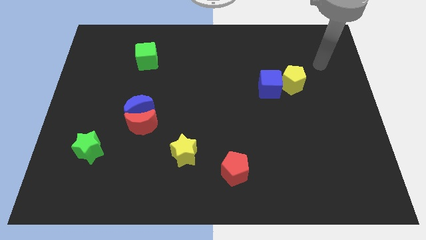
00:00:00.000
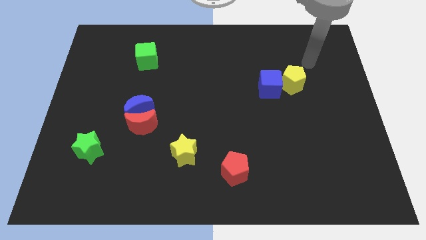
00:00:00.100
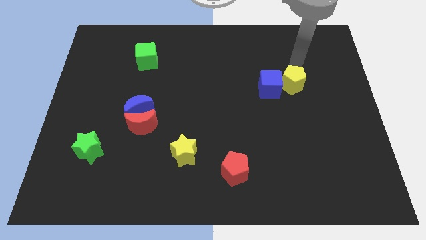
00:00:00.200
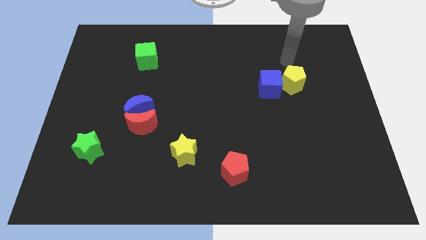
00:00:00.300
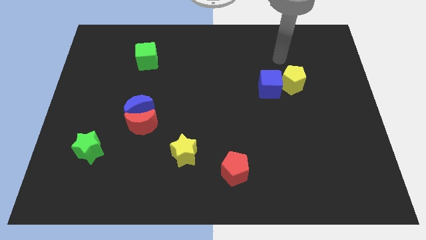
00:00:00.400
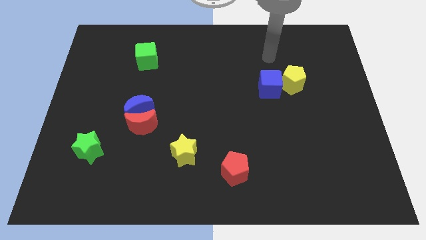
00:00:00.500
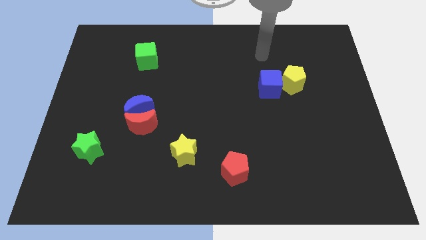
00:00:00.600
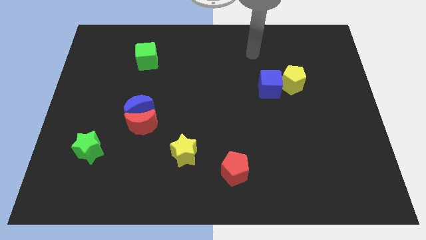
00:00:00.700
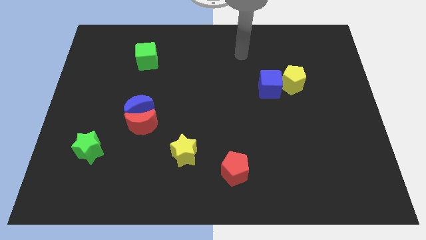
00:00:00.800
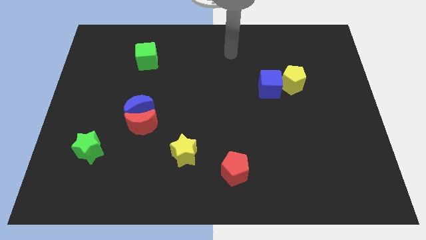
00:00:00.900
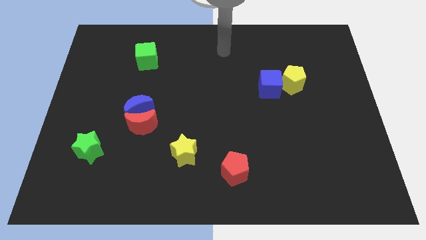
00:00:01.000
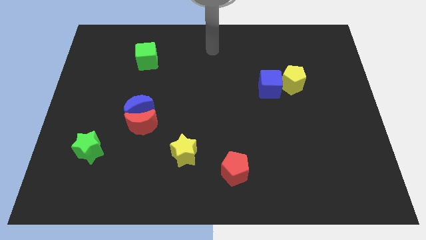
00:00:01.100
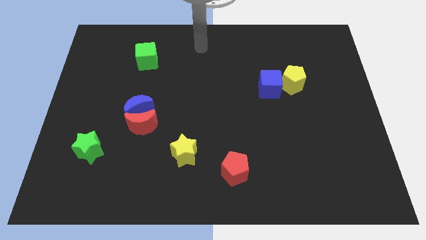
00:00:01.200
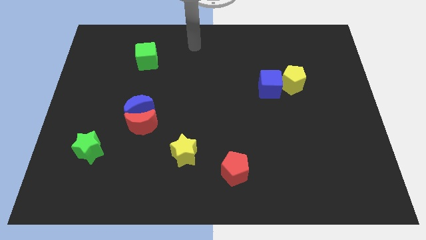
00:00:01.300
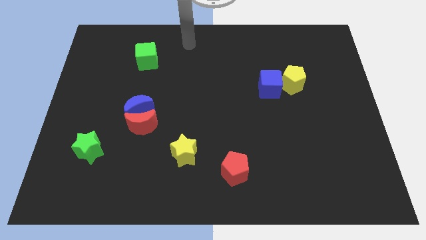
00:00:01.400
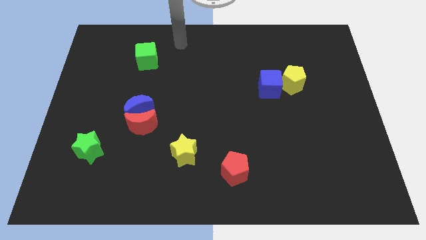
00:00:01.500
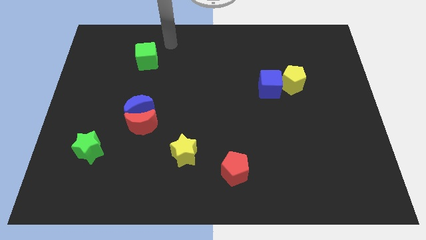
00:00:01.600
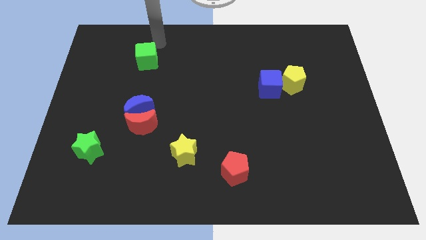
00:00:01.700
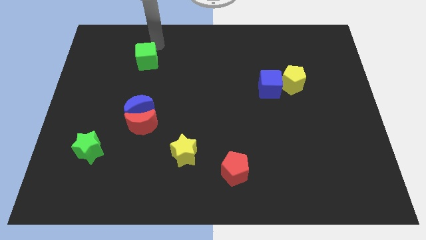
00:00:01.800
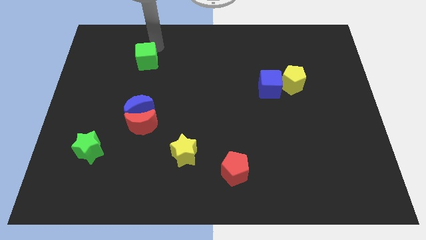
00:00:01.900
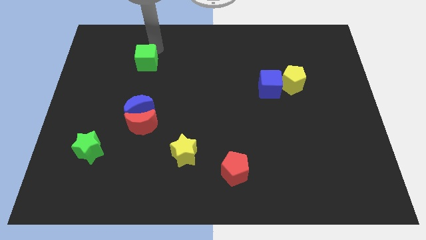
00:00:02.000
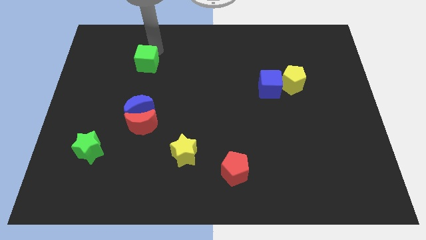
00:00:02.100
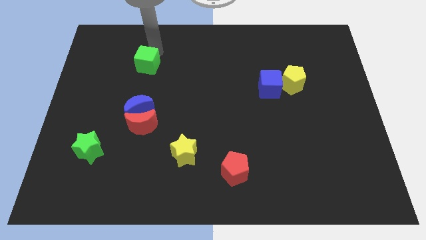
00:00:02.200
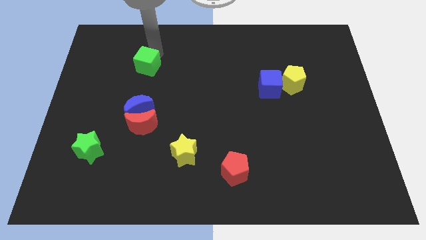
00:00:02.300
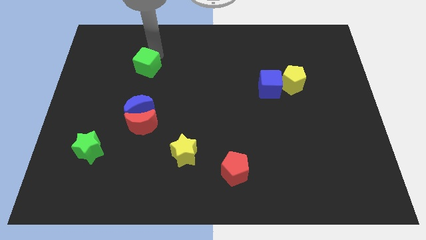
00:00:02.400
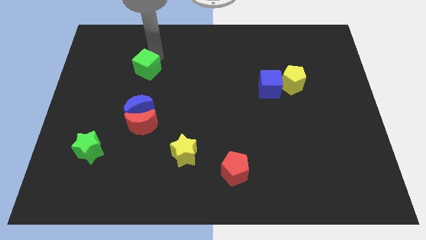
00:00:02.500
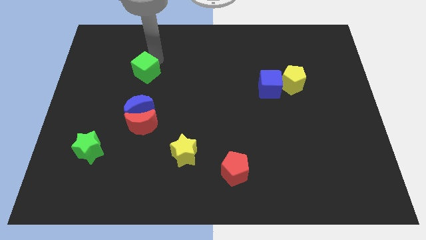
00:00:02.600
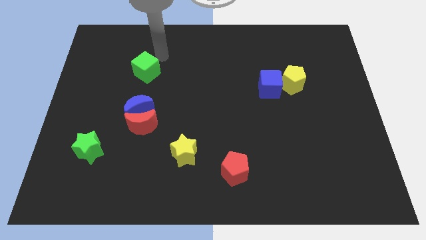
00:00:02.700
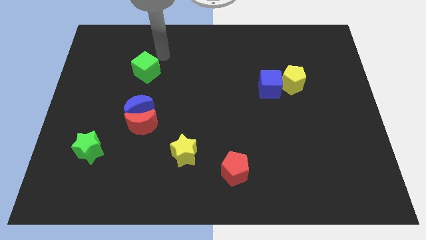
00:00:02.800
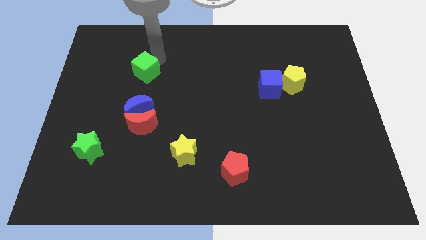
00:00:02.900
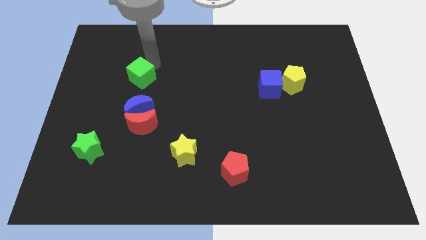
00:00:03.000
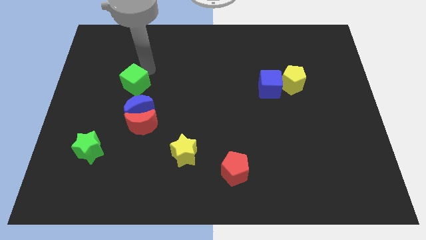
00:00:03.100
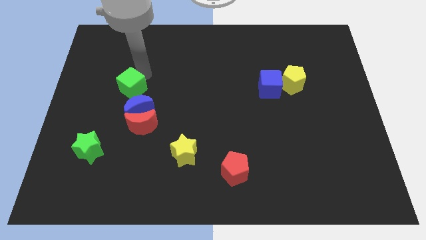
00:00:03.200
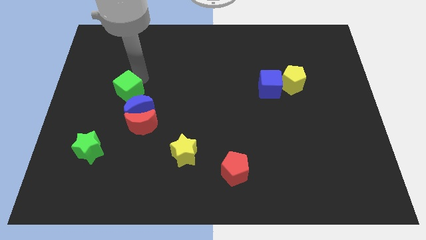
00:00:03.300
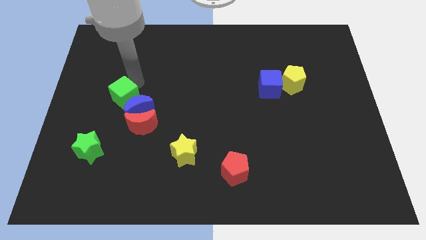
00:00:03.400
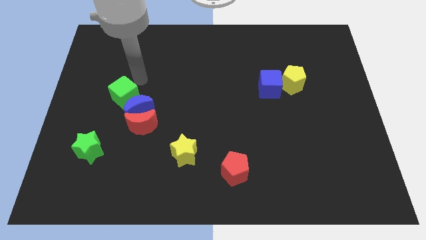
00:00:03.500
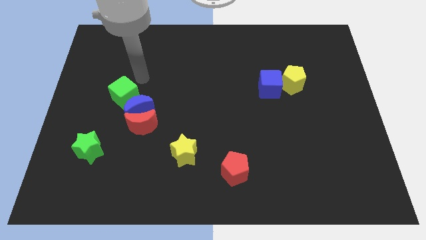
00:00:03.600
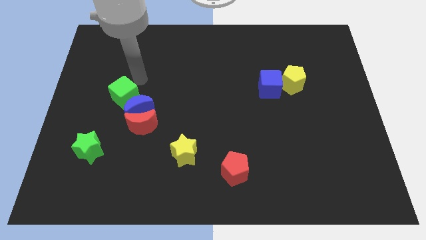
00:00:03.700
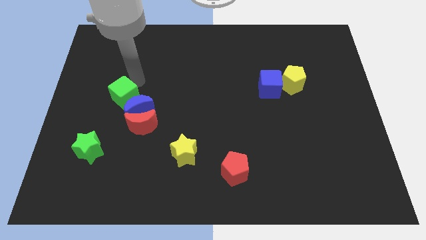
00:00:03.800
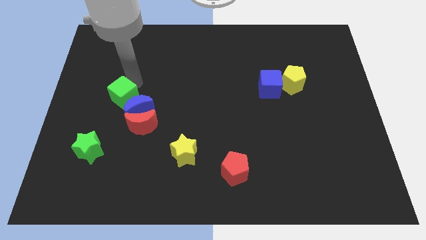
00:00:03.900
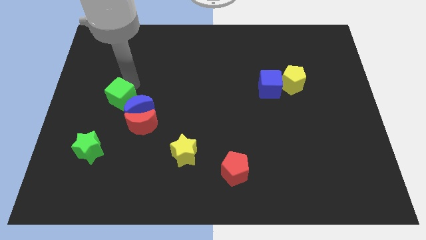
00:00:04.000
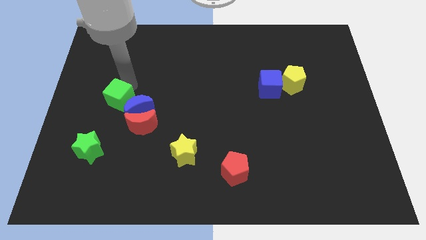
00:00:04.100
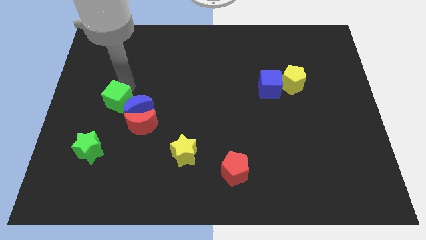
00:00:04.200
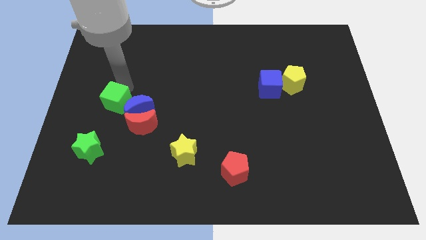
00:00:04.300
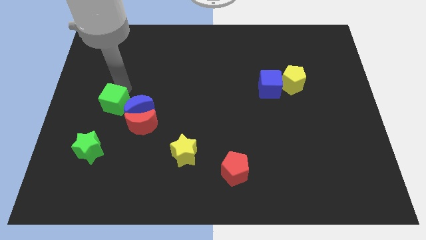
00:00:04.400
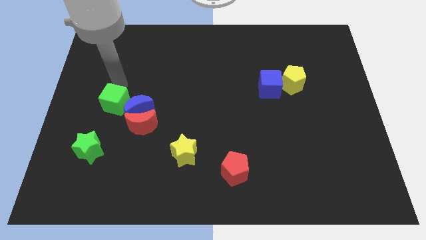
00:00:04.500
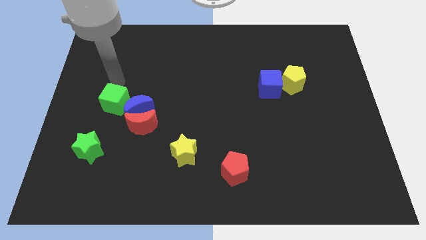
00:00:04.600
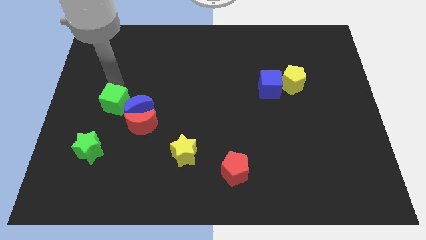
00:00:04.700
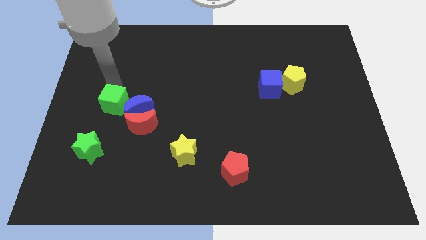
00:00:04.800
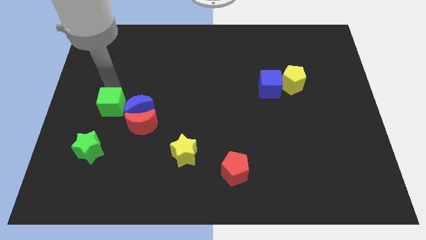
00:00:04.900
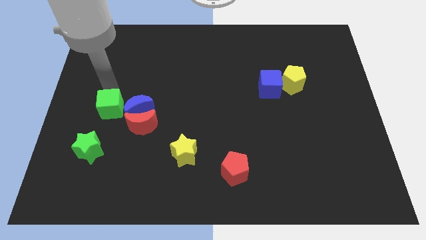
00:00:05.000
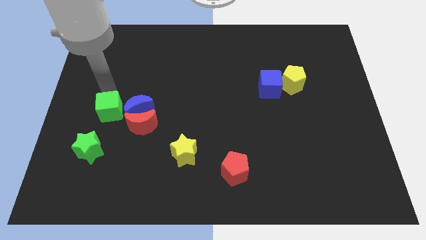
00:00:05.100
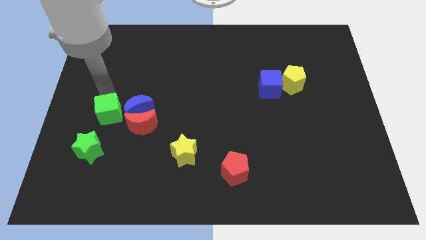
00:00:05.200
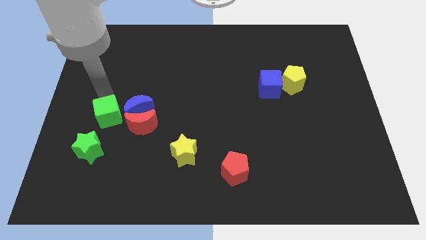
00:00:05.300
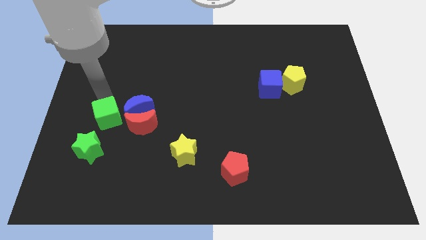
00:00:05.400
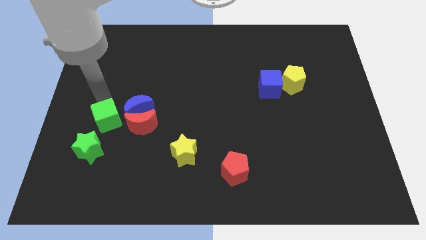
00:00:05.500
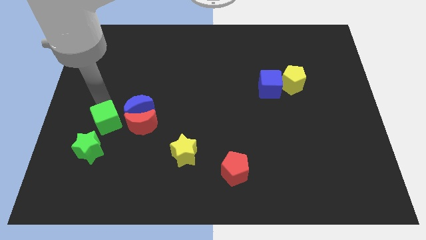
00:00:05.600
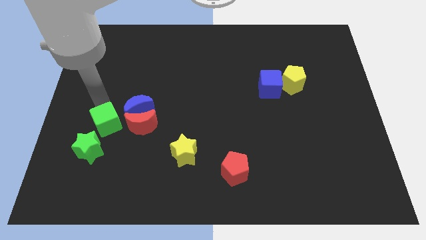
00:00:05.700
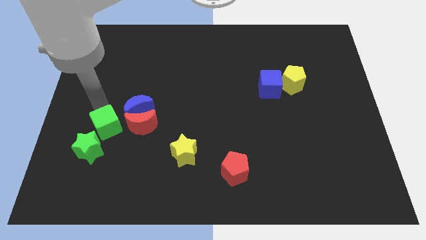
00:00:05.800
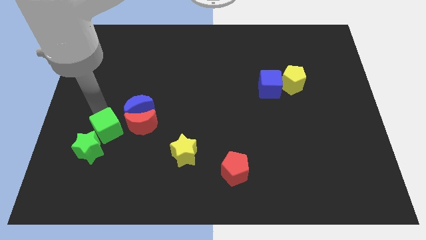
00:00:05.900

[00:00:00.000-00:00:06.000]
slide the green cube downwards

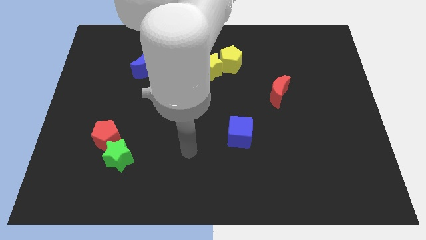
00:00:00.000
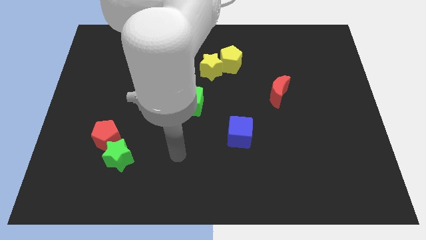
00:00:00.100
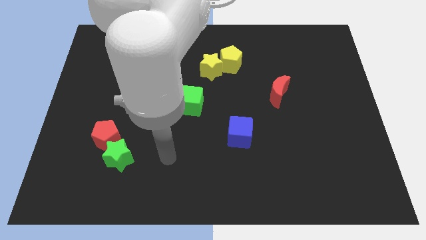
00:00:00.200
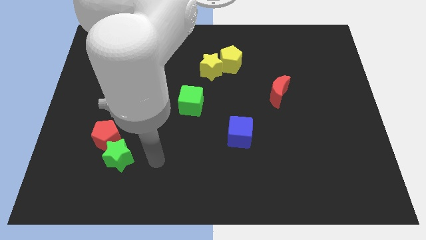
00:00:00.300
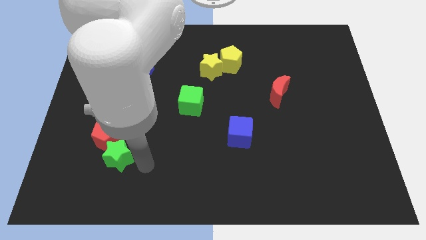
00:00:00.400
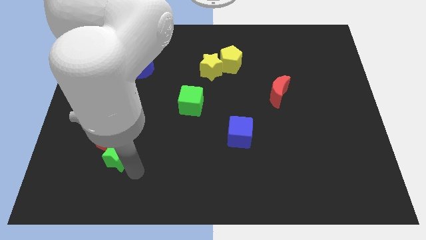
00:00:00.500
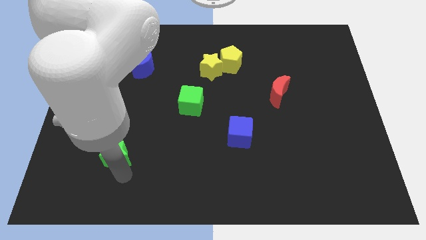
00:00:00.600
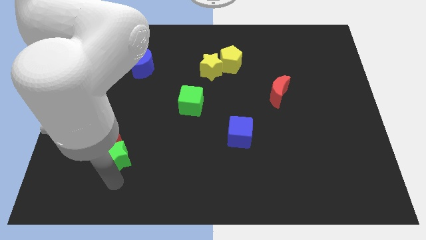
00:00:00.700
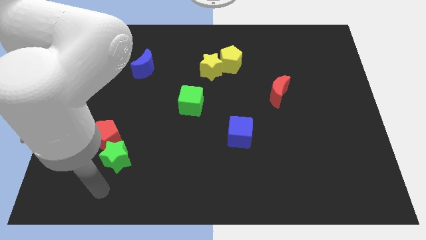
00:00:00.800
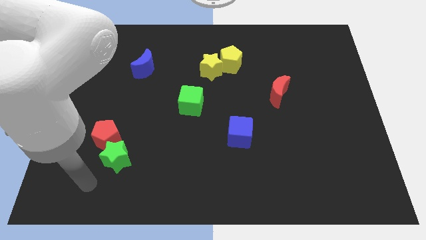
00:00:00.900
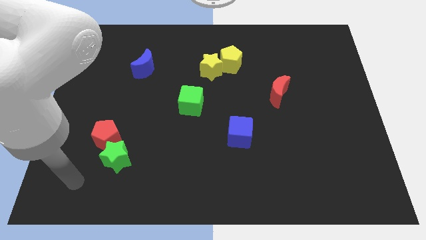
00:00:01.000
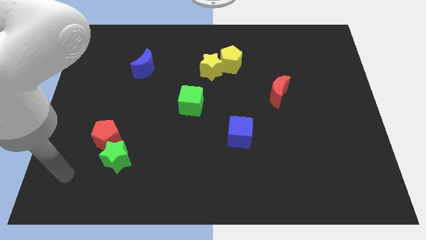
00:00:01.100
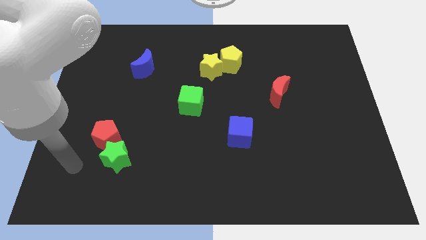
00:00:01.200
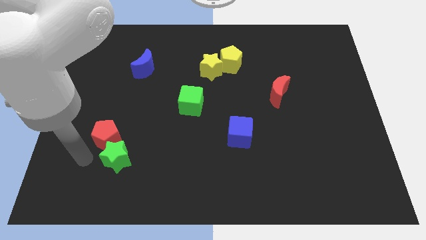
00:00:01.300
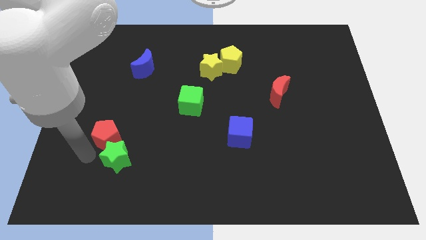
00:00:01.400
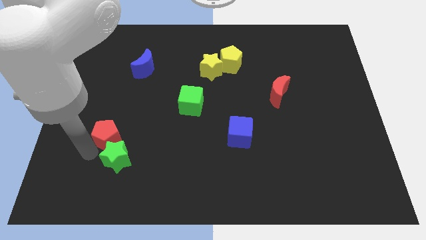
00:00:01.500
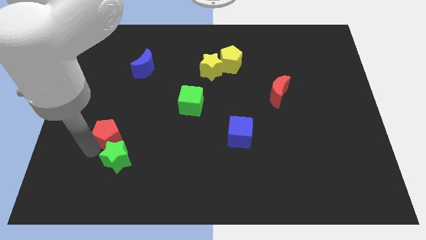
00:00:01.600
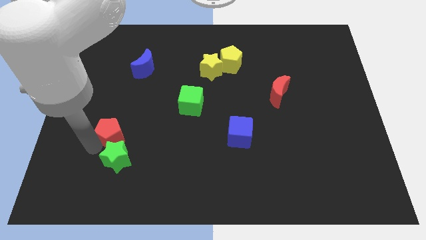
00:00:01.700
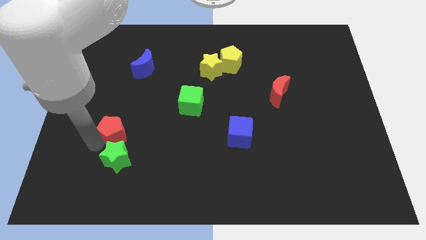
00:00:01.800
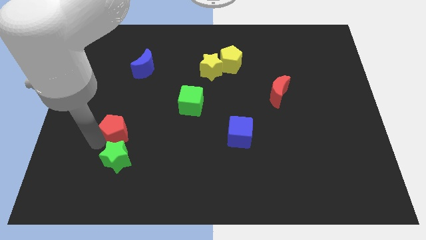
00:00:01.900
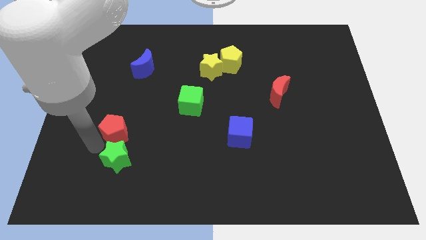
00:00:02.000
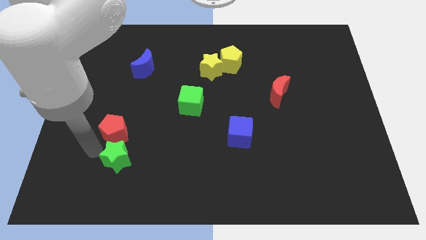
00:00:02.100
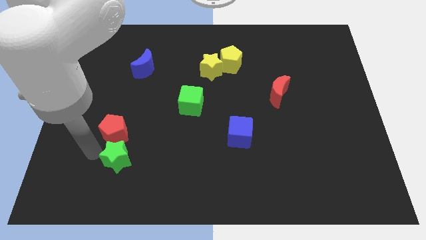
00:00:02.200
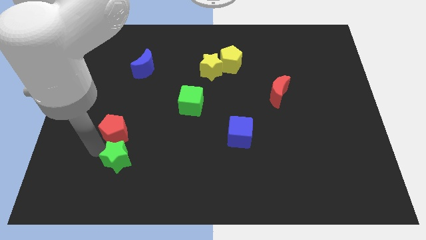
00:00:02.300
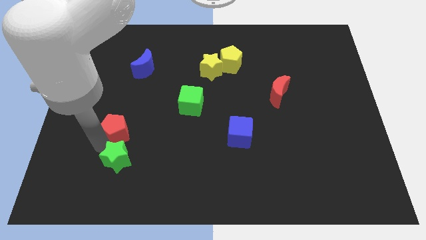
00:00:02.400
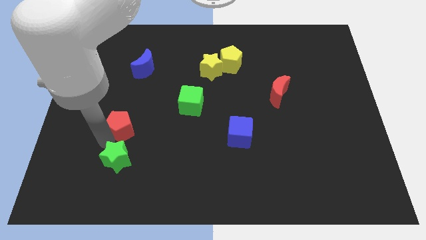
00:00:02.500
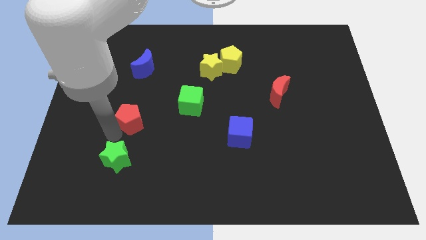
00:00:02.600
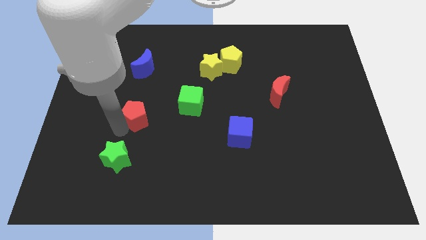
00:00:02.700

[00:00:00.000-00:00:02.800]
push the red pentagon up and to the right diagonally a little
